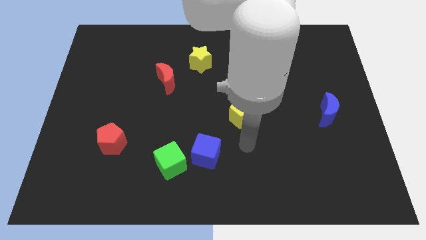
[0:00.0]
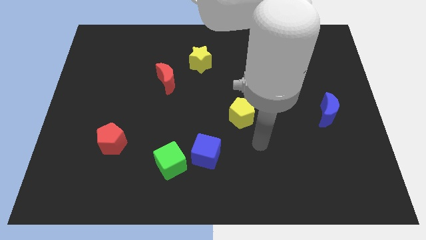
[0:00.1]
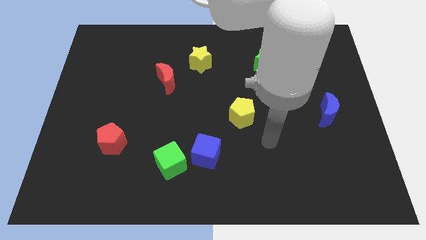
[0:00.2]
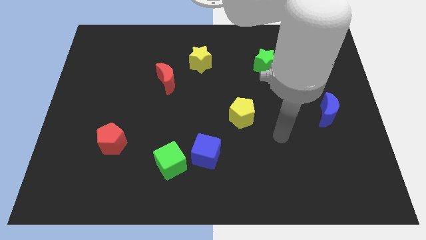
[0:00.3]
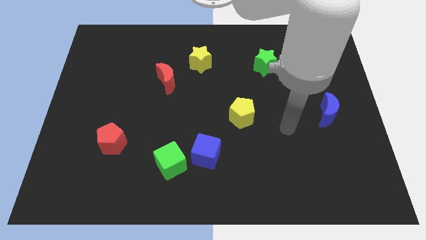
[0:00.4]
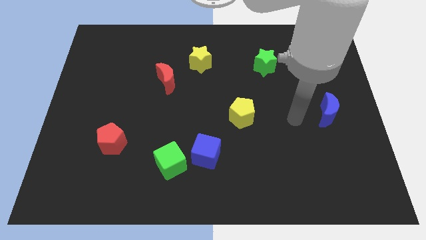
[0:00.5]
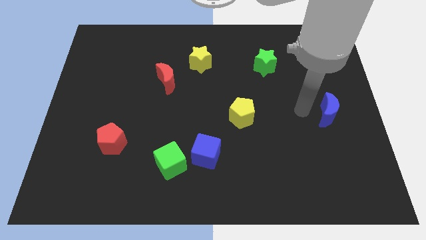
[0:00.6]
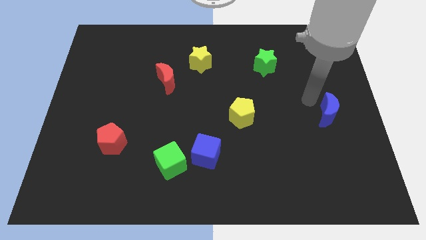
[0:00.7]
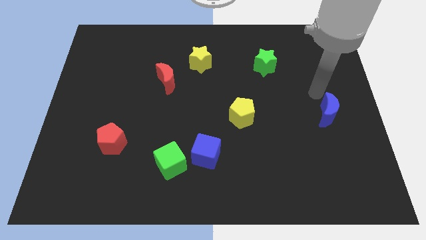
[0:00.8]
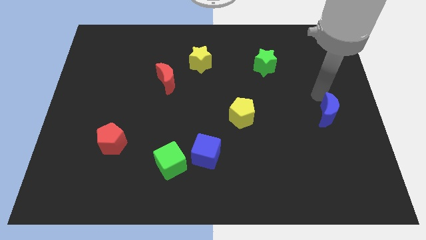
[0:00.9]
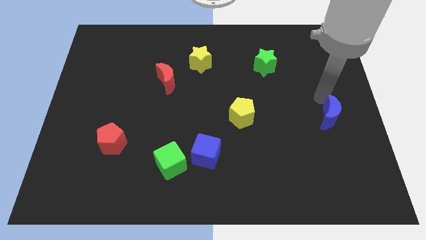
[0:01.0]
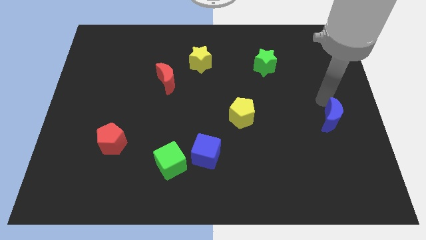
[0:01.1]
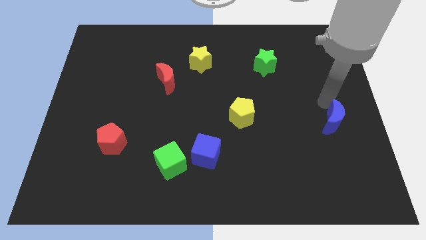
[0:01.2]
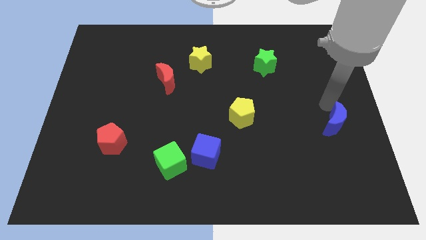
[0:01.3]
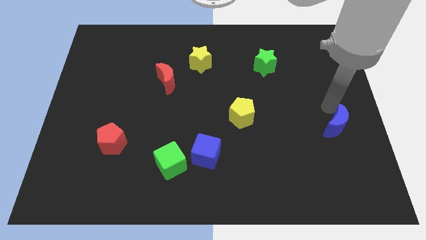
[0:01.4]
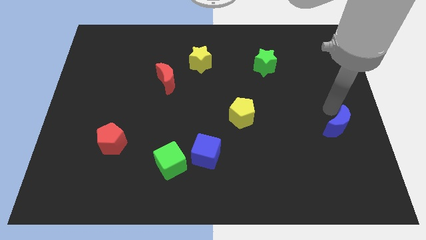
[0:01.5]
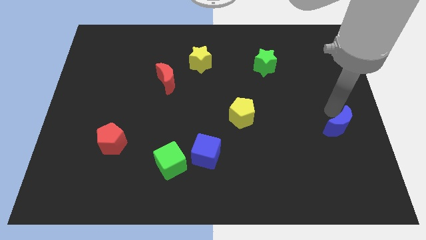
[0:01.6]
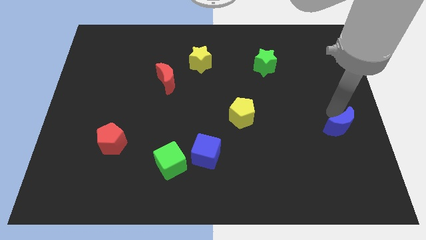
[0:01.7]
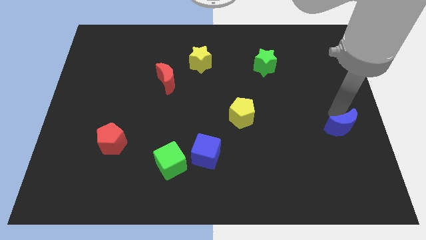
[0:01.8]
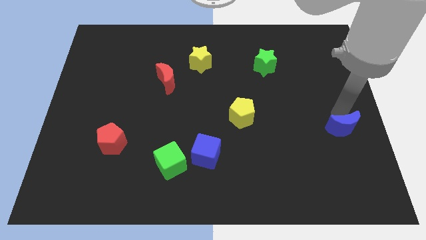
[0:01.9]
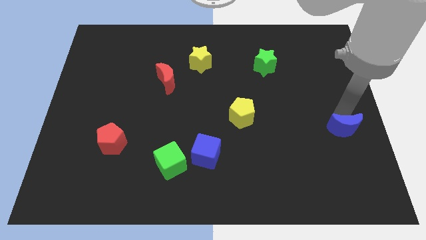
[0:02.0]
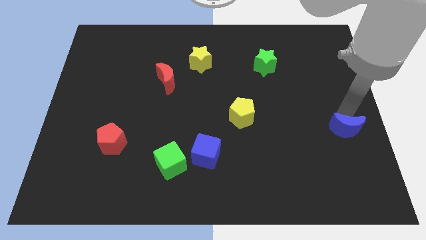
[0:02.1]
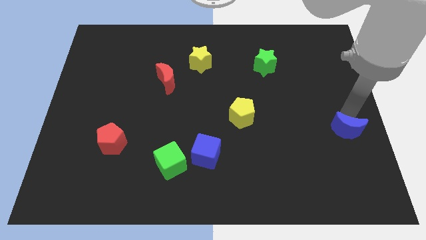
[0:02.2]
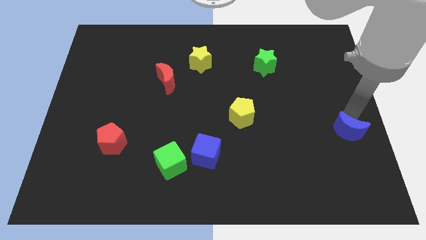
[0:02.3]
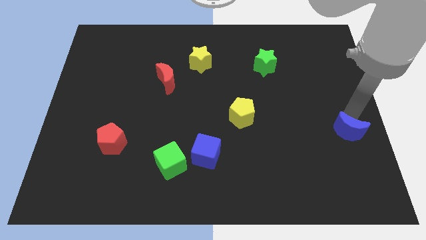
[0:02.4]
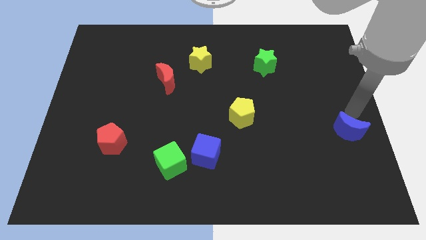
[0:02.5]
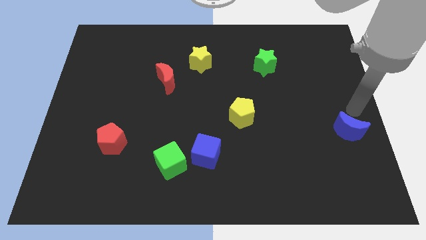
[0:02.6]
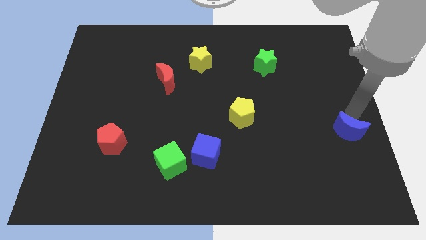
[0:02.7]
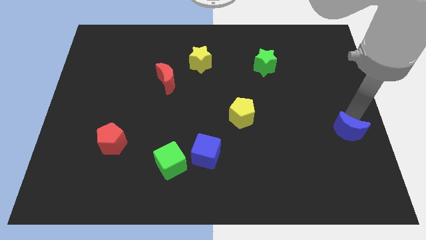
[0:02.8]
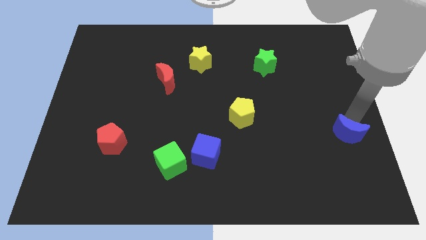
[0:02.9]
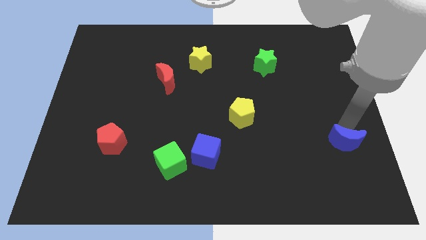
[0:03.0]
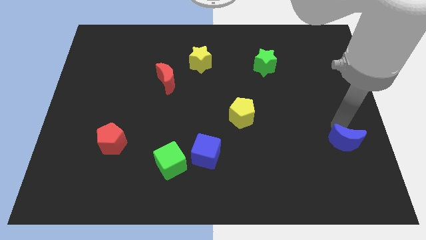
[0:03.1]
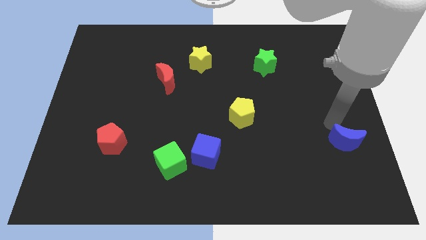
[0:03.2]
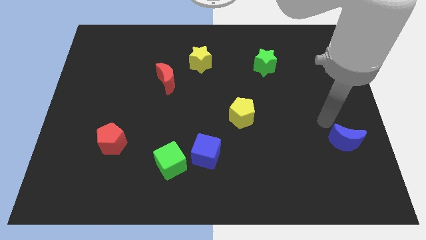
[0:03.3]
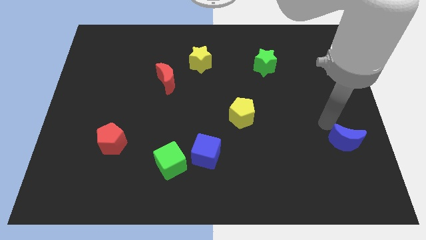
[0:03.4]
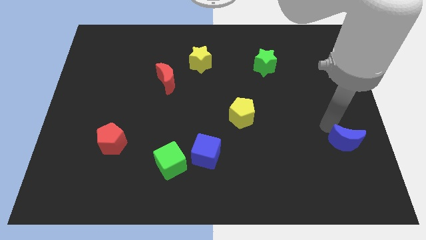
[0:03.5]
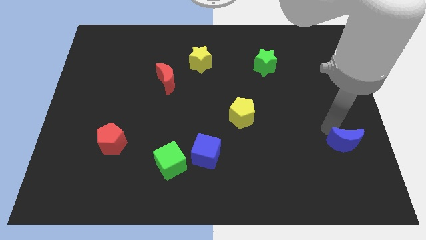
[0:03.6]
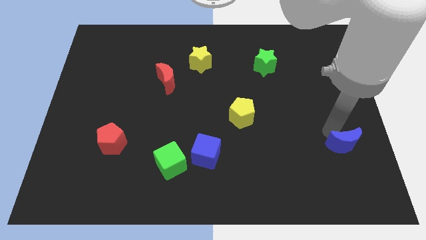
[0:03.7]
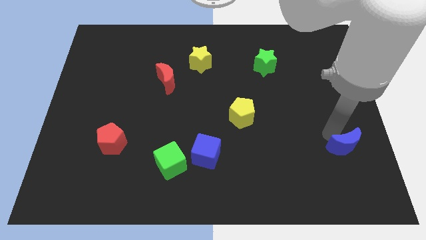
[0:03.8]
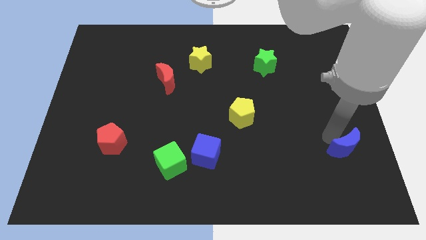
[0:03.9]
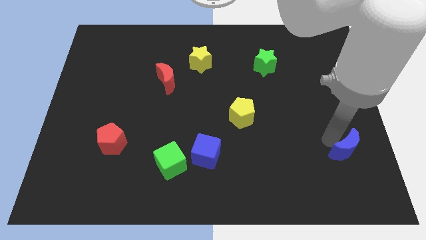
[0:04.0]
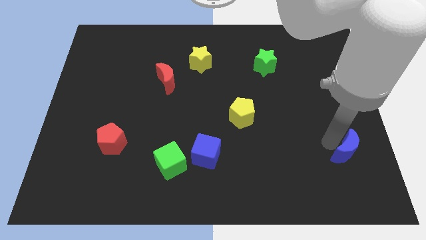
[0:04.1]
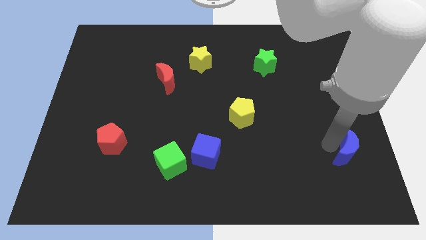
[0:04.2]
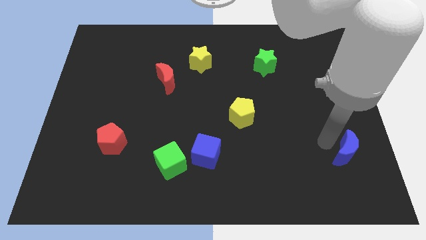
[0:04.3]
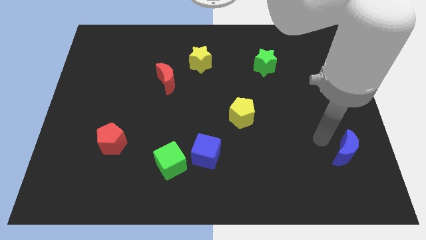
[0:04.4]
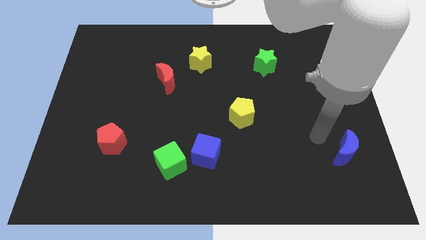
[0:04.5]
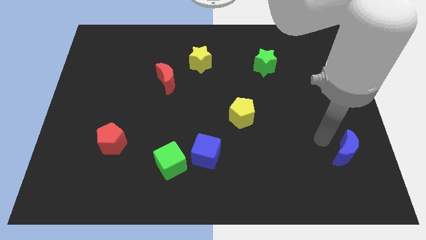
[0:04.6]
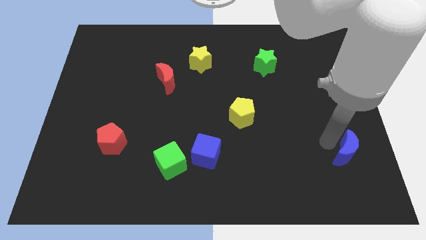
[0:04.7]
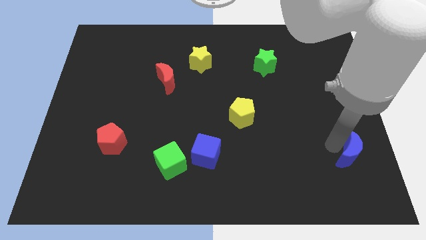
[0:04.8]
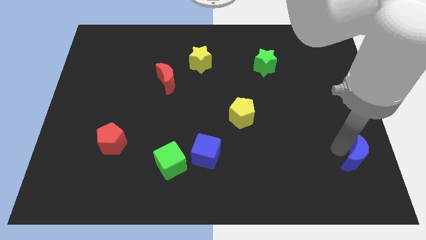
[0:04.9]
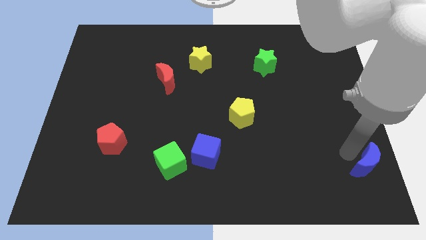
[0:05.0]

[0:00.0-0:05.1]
move the blue moon to the lower right corner
